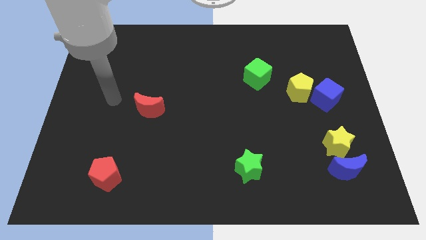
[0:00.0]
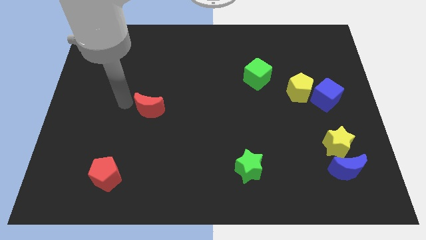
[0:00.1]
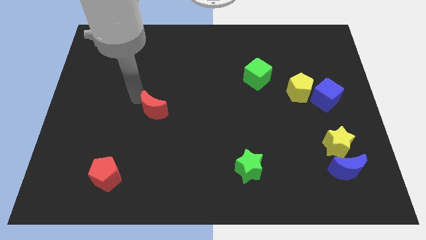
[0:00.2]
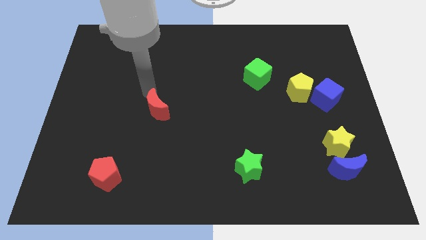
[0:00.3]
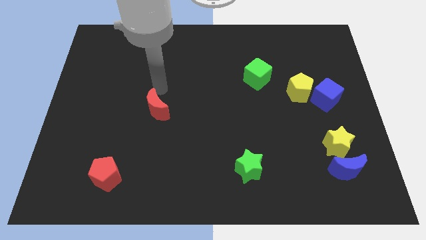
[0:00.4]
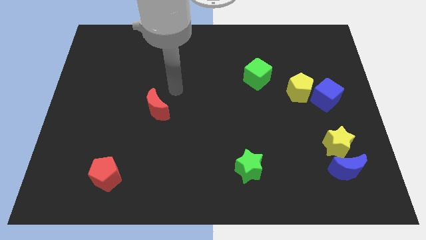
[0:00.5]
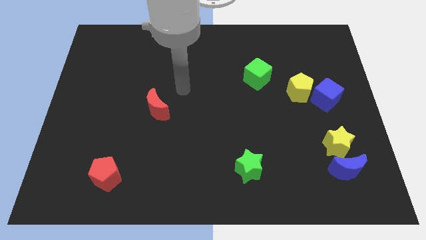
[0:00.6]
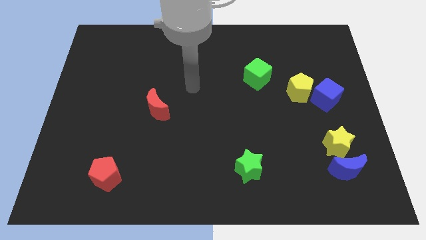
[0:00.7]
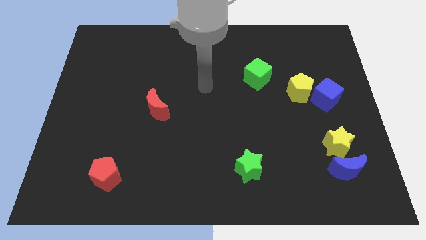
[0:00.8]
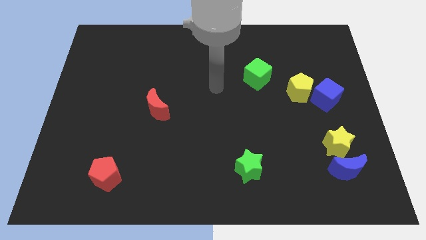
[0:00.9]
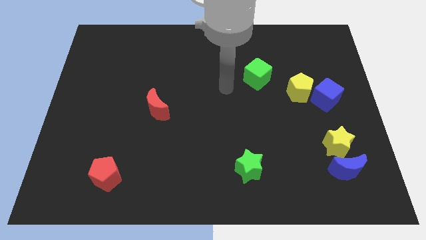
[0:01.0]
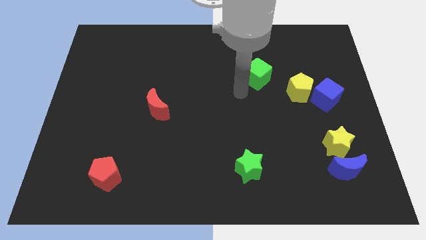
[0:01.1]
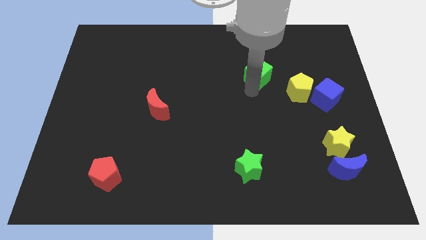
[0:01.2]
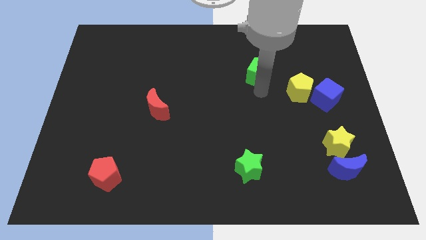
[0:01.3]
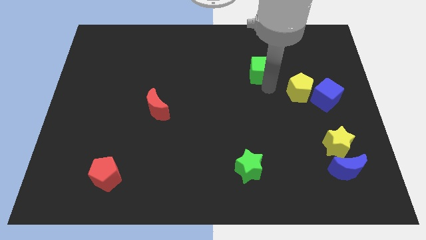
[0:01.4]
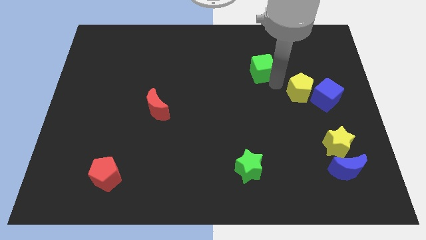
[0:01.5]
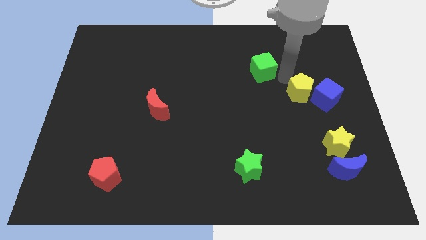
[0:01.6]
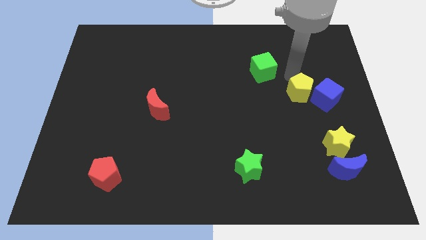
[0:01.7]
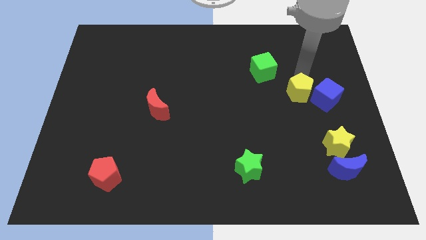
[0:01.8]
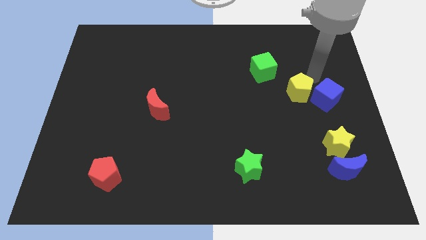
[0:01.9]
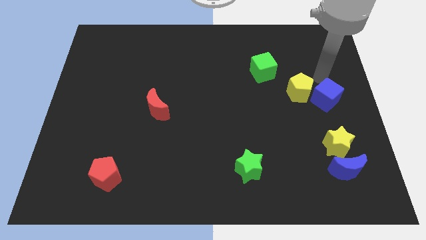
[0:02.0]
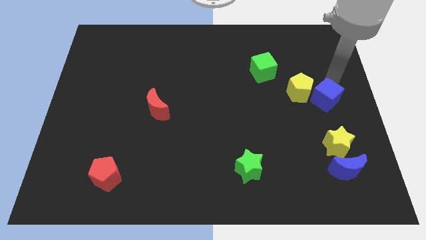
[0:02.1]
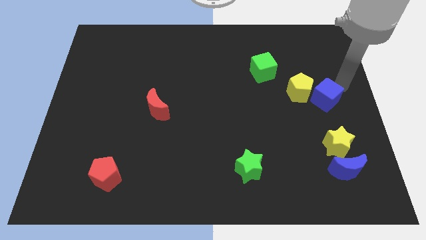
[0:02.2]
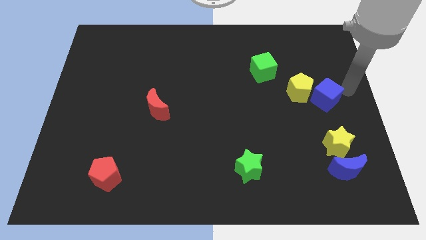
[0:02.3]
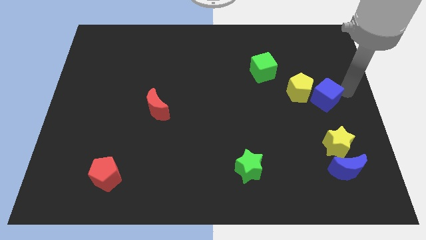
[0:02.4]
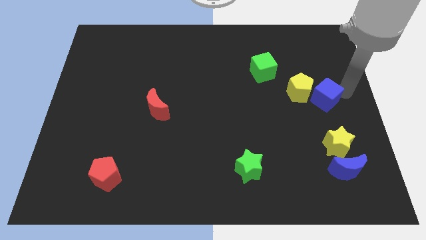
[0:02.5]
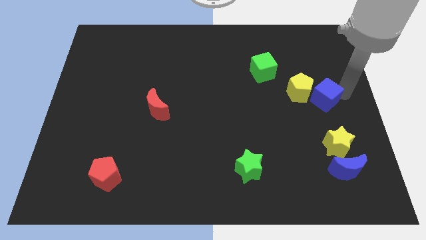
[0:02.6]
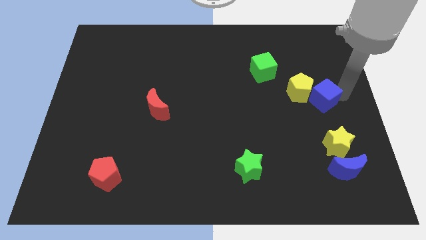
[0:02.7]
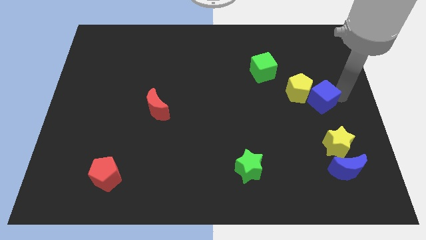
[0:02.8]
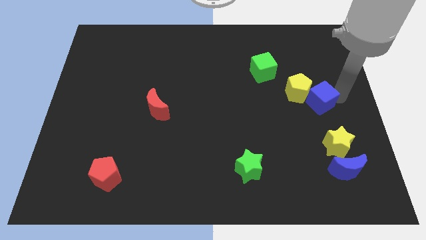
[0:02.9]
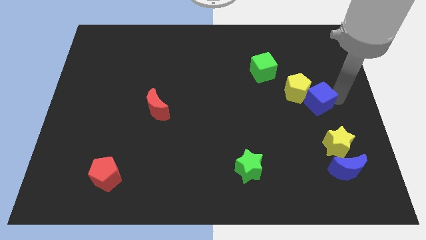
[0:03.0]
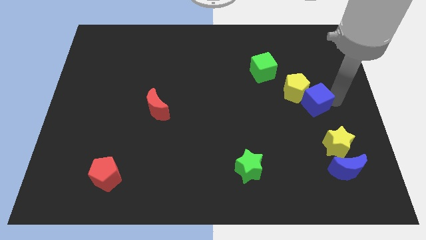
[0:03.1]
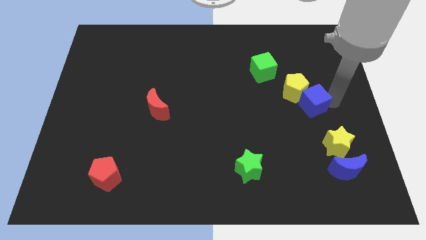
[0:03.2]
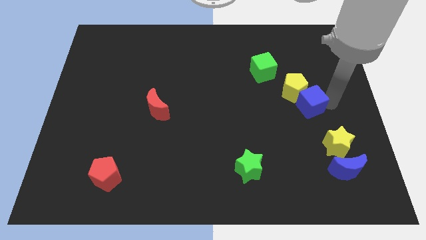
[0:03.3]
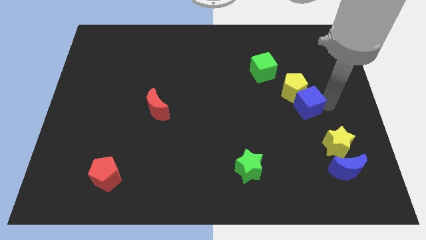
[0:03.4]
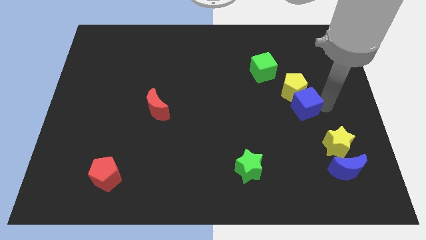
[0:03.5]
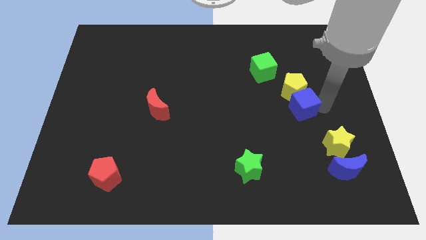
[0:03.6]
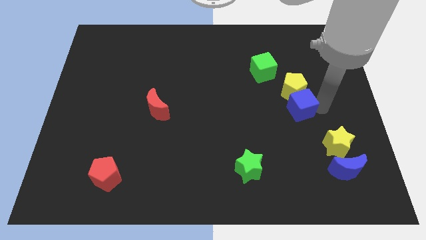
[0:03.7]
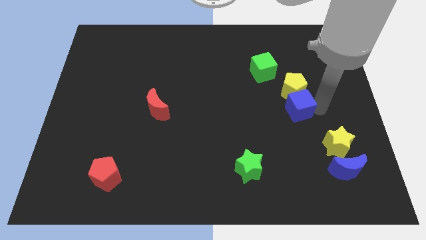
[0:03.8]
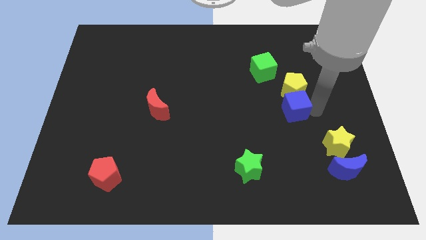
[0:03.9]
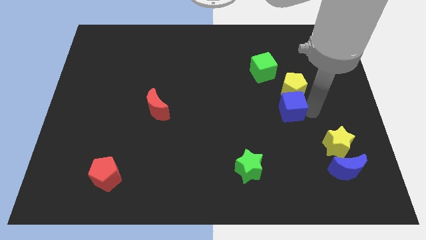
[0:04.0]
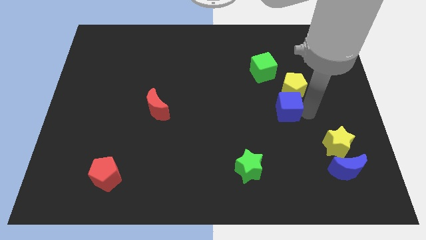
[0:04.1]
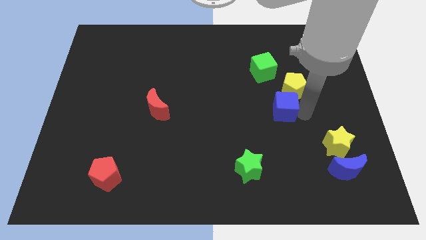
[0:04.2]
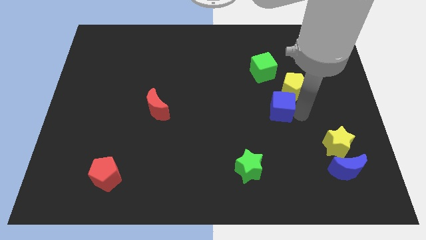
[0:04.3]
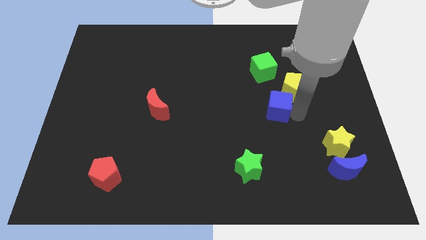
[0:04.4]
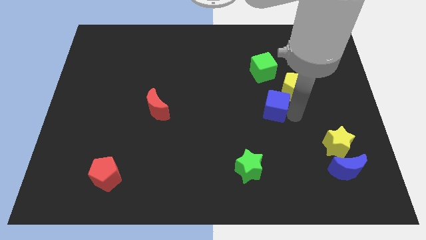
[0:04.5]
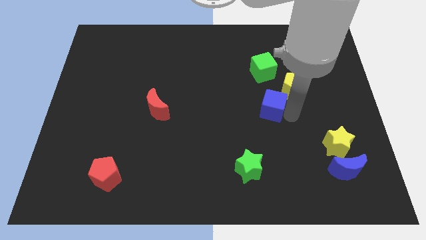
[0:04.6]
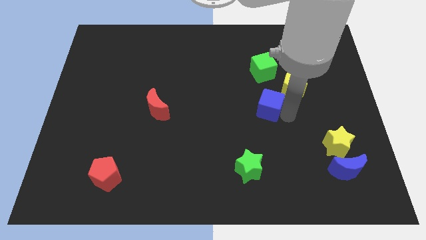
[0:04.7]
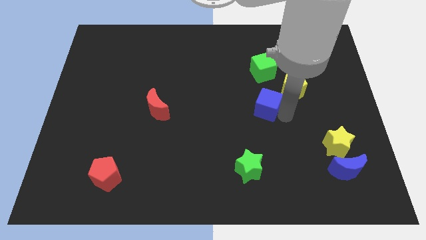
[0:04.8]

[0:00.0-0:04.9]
move the blue cube to the center

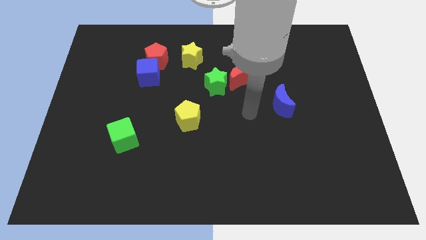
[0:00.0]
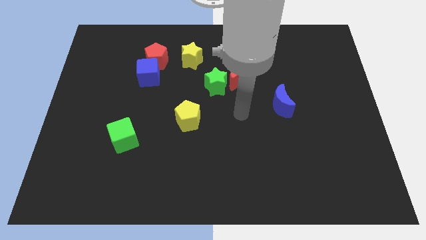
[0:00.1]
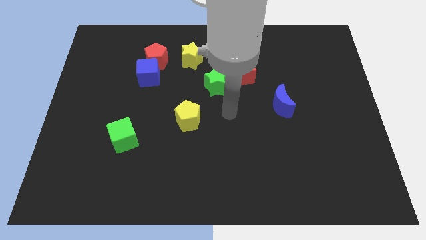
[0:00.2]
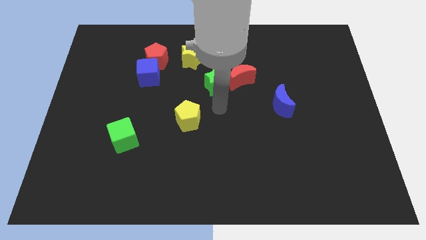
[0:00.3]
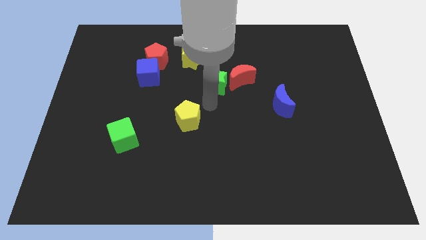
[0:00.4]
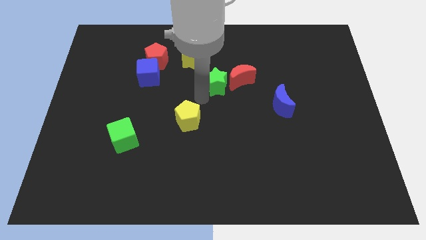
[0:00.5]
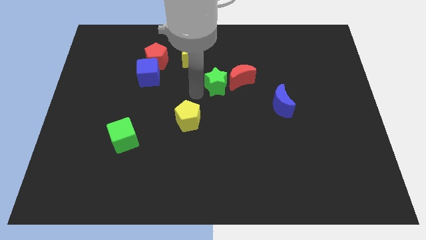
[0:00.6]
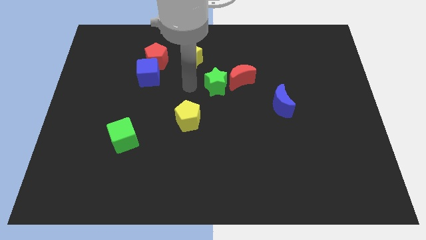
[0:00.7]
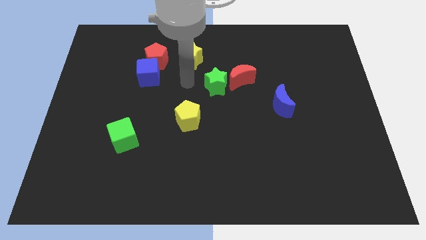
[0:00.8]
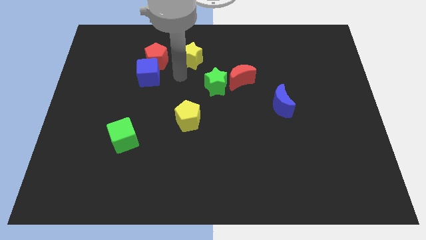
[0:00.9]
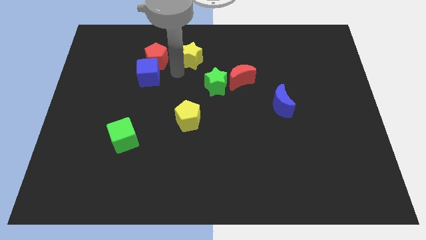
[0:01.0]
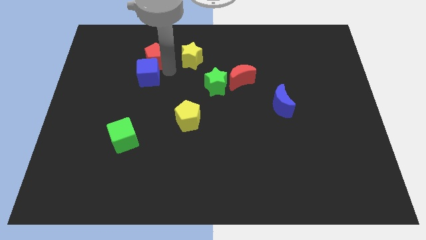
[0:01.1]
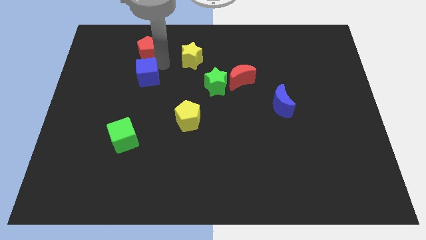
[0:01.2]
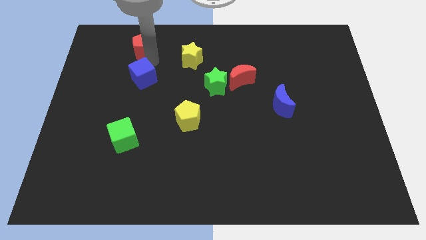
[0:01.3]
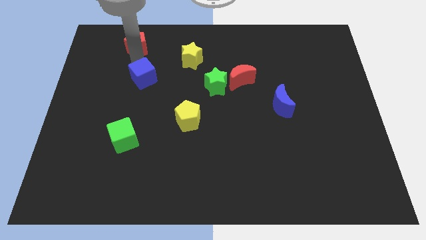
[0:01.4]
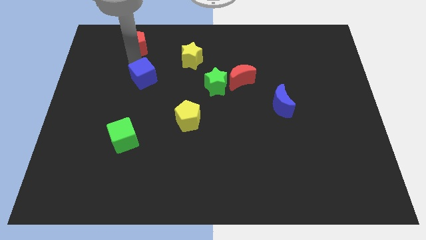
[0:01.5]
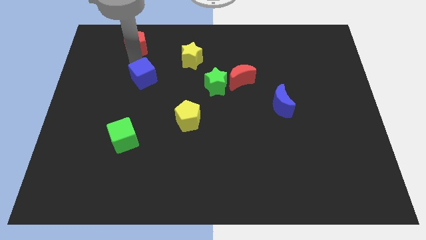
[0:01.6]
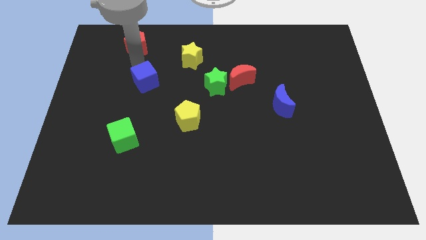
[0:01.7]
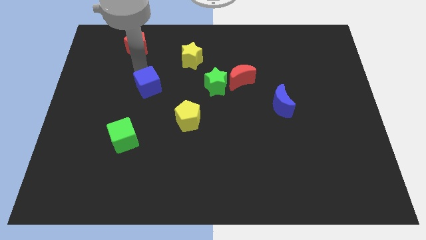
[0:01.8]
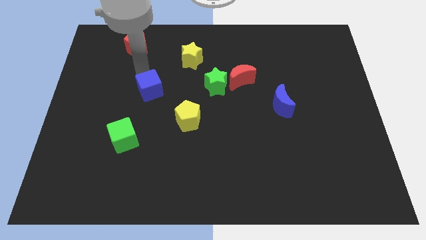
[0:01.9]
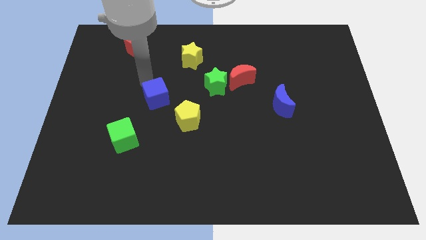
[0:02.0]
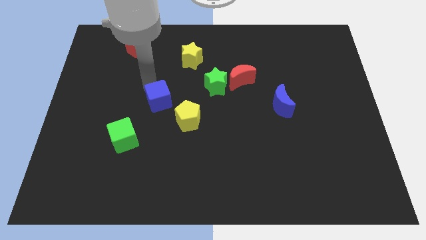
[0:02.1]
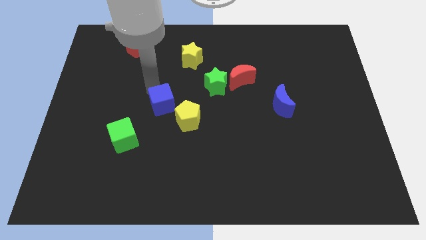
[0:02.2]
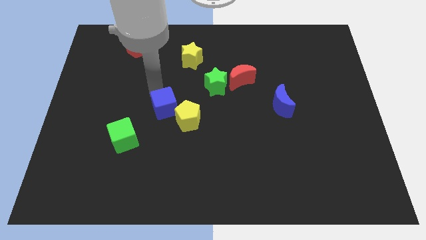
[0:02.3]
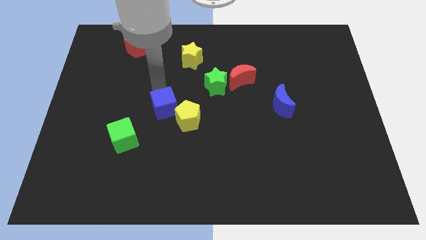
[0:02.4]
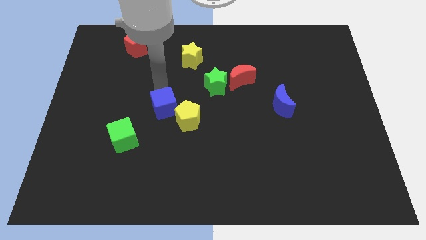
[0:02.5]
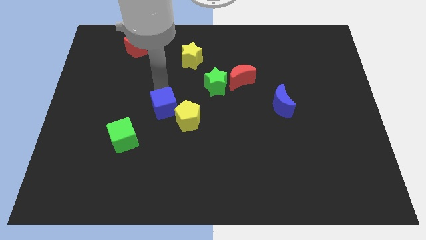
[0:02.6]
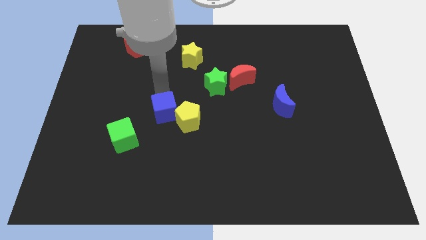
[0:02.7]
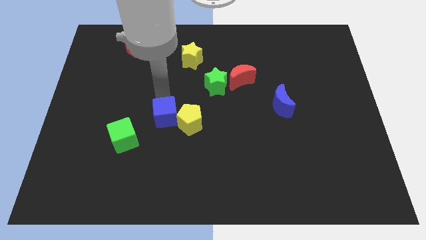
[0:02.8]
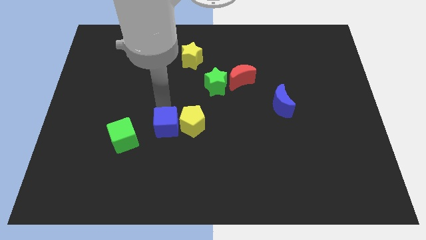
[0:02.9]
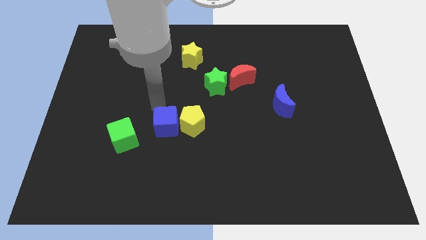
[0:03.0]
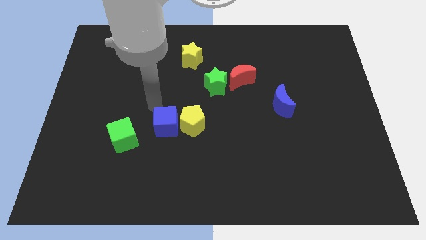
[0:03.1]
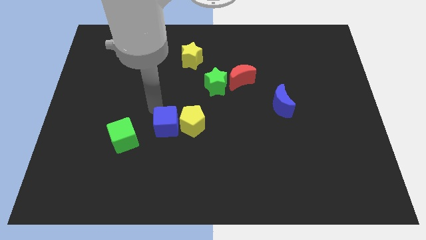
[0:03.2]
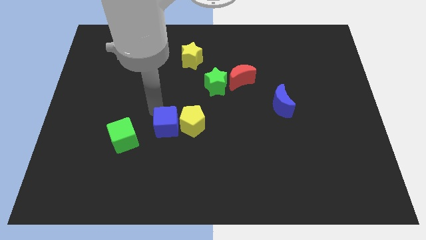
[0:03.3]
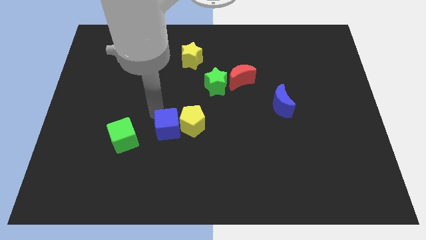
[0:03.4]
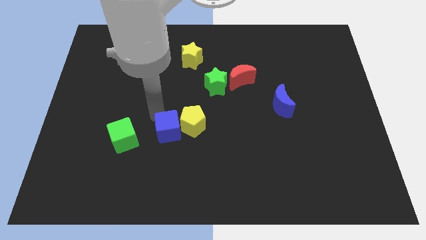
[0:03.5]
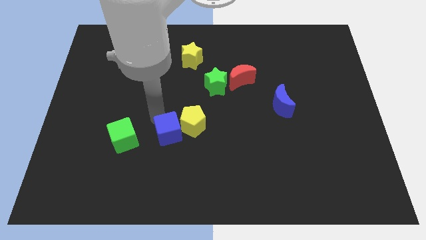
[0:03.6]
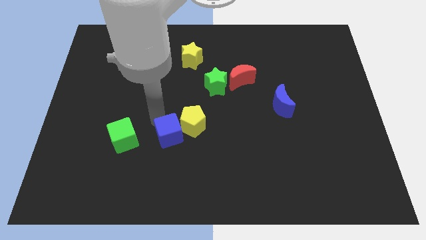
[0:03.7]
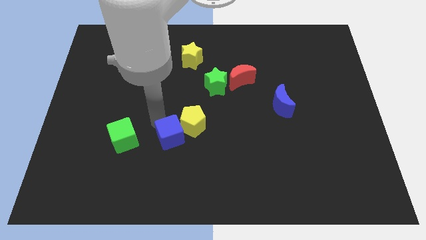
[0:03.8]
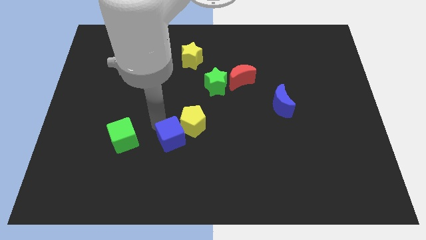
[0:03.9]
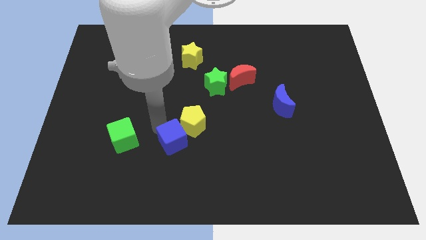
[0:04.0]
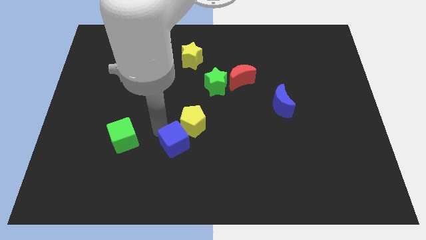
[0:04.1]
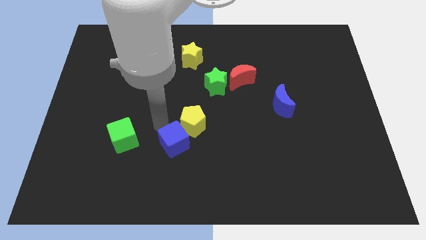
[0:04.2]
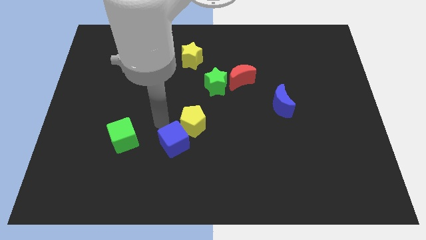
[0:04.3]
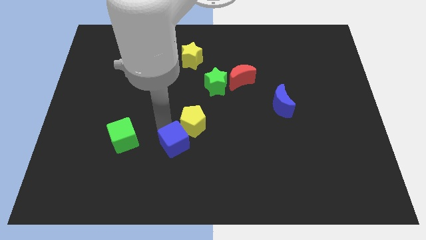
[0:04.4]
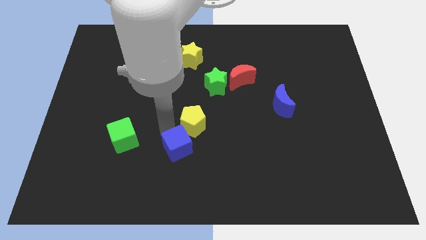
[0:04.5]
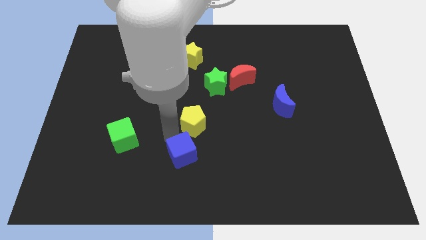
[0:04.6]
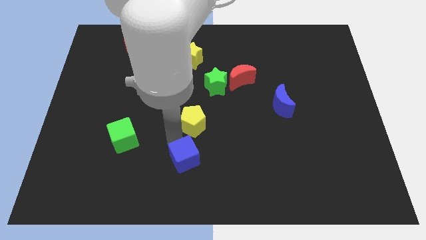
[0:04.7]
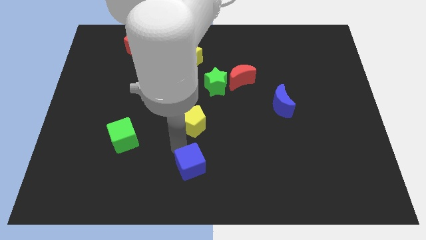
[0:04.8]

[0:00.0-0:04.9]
move the blue cube to the bottom side
